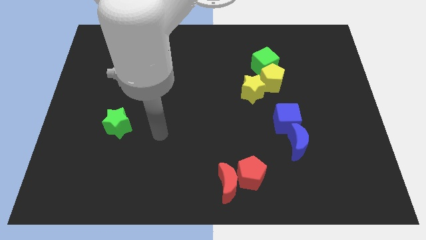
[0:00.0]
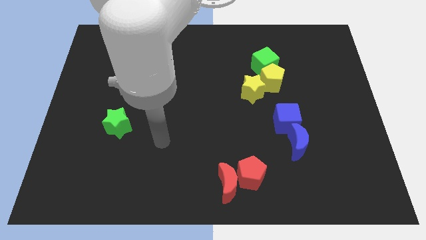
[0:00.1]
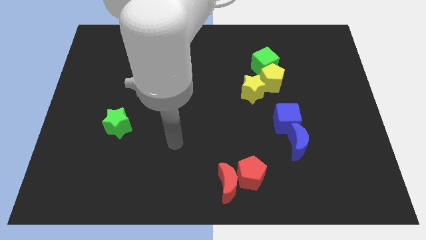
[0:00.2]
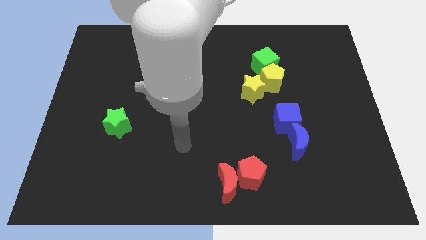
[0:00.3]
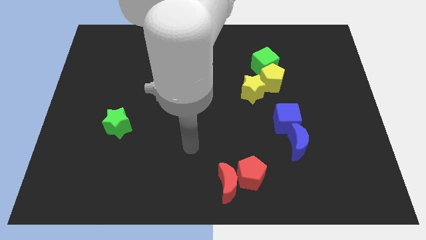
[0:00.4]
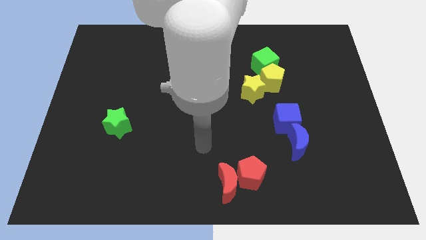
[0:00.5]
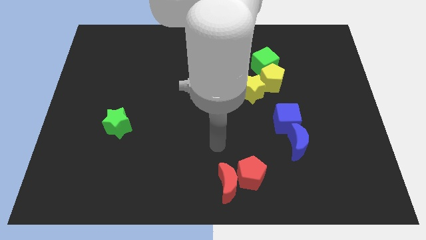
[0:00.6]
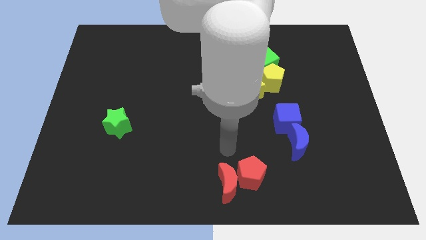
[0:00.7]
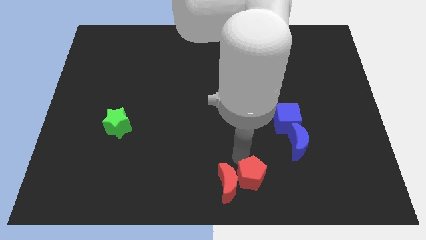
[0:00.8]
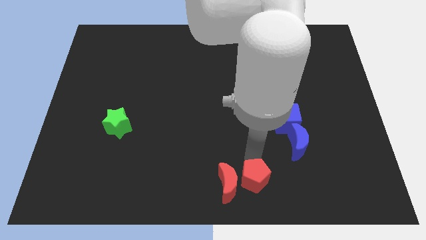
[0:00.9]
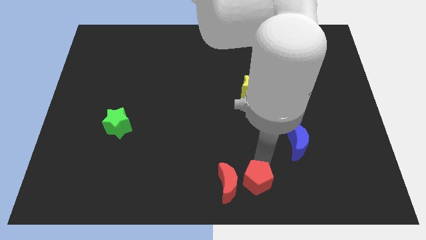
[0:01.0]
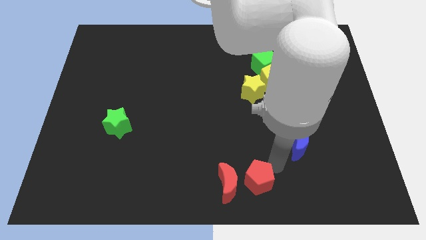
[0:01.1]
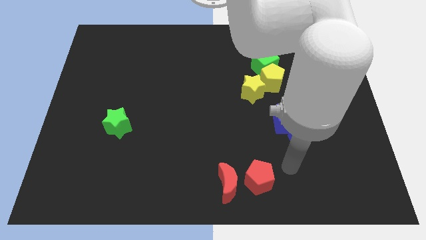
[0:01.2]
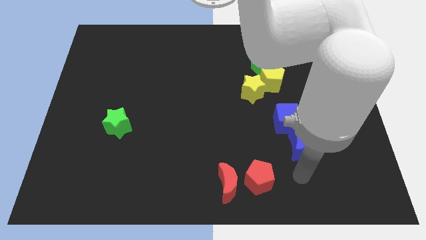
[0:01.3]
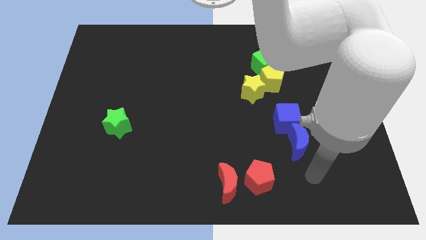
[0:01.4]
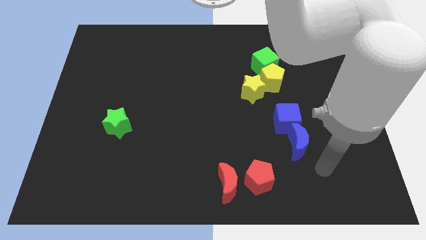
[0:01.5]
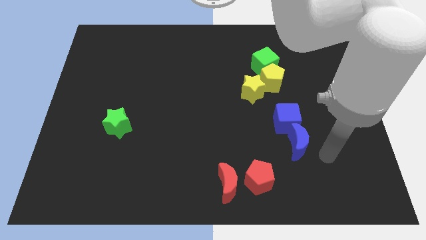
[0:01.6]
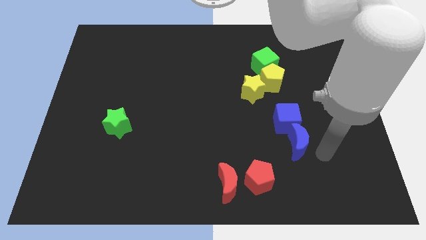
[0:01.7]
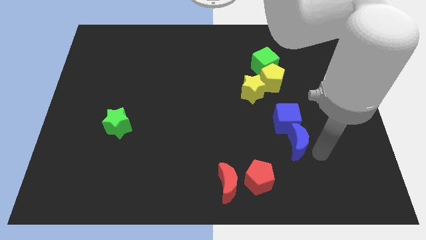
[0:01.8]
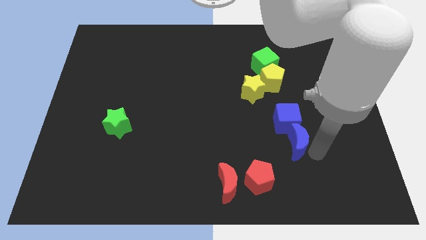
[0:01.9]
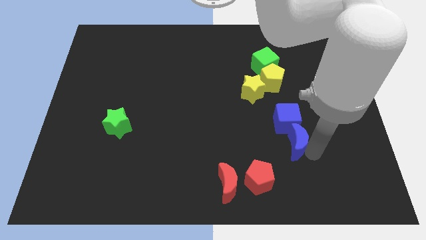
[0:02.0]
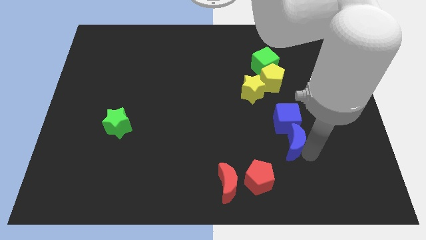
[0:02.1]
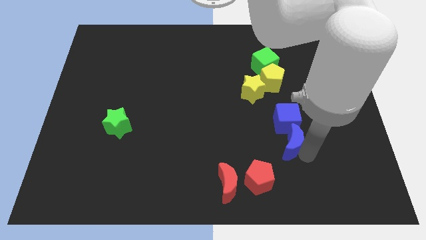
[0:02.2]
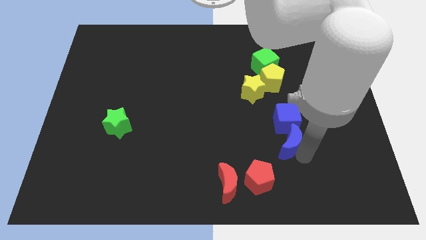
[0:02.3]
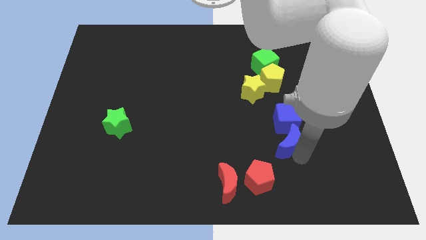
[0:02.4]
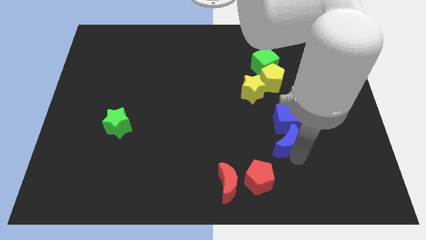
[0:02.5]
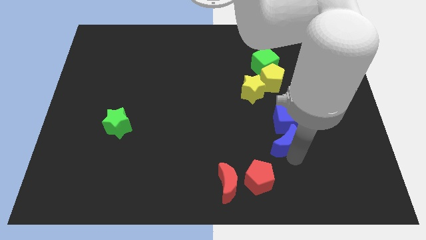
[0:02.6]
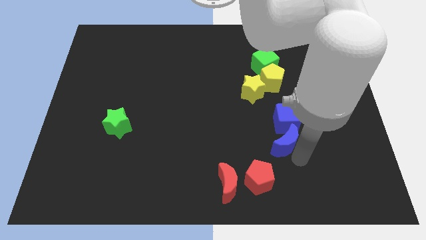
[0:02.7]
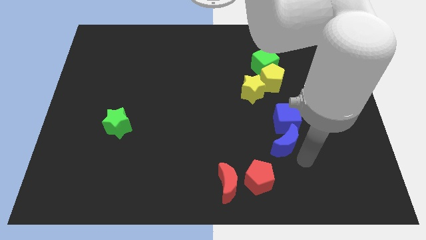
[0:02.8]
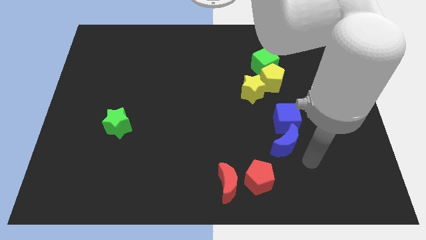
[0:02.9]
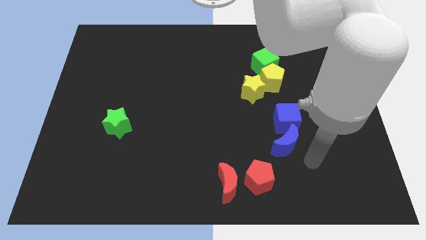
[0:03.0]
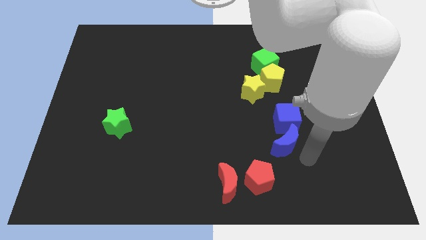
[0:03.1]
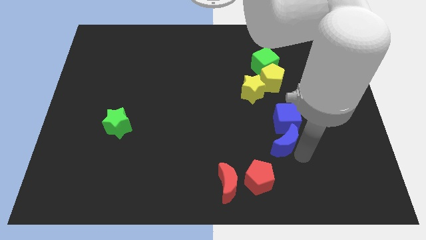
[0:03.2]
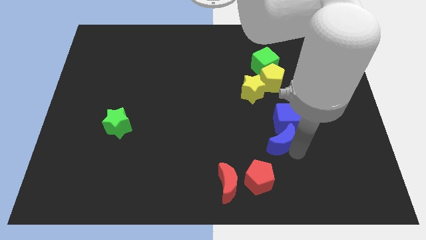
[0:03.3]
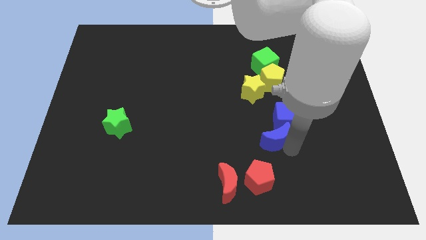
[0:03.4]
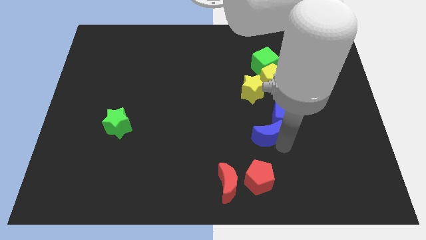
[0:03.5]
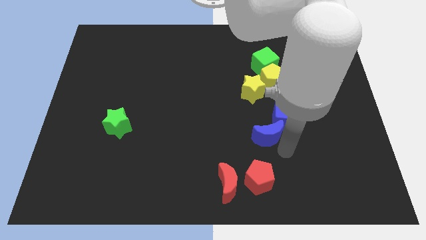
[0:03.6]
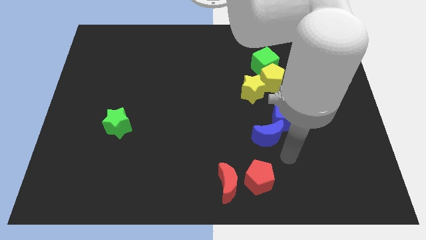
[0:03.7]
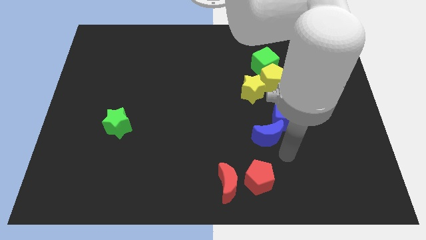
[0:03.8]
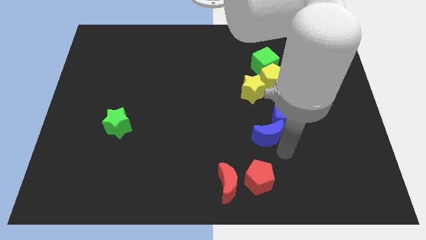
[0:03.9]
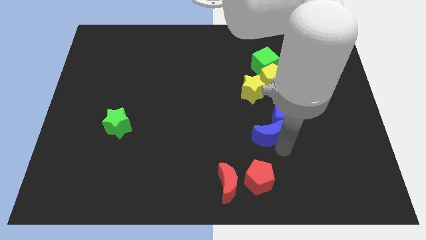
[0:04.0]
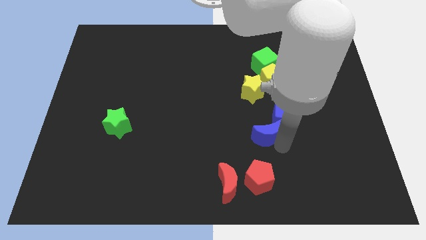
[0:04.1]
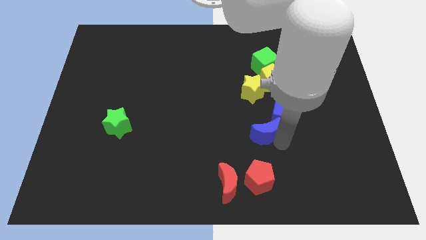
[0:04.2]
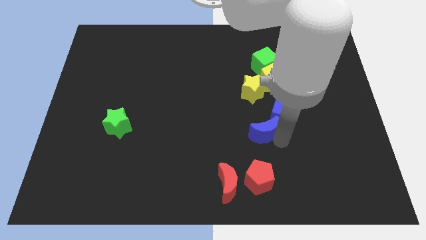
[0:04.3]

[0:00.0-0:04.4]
push the blue moon up and left diagonally a little

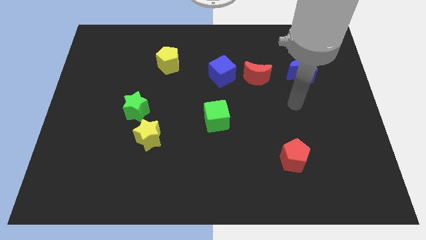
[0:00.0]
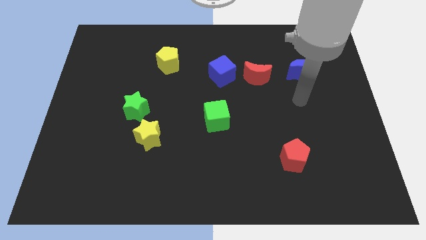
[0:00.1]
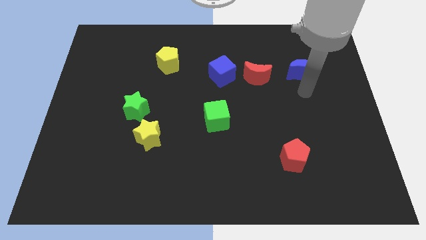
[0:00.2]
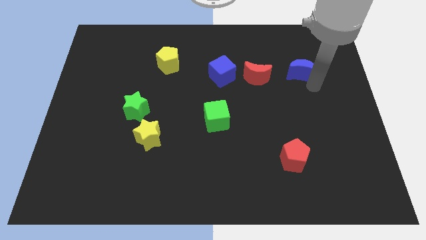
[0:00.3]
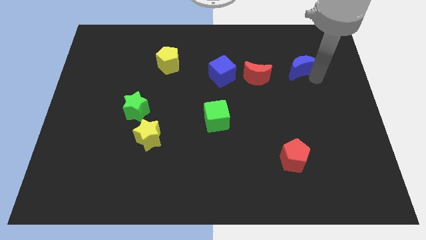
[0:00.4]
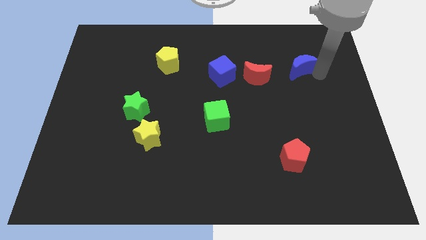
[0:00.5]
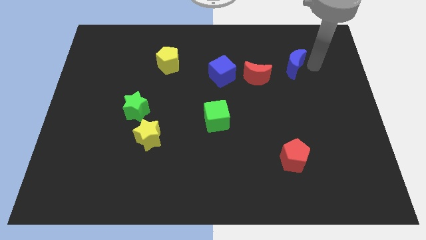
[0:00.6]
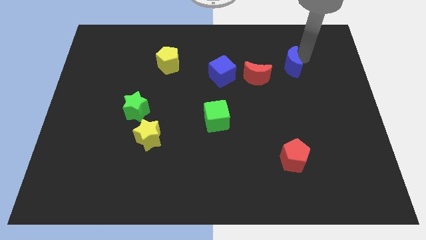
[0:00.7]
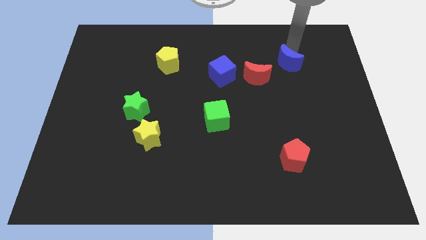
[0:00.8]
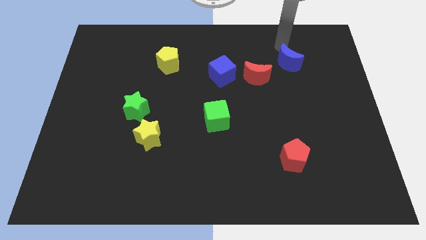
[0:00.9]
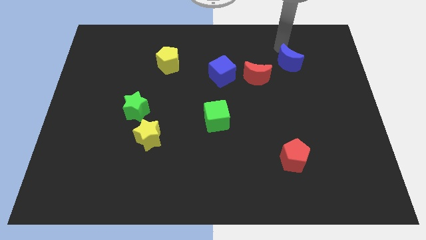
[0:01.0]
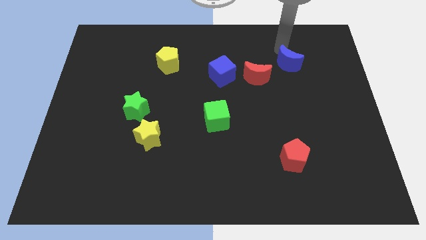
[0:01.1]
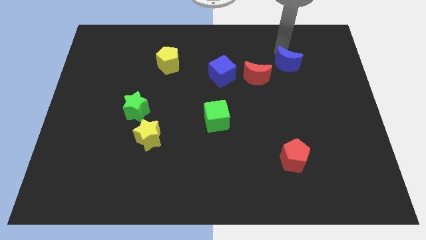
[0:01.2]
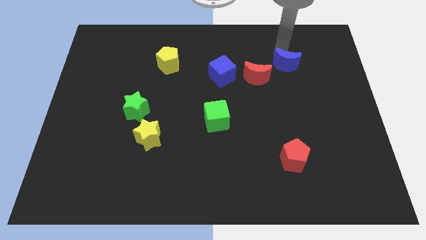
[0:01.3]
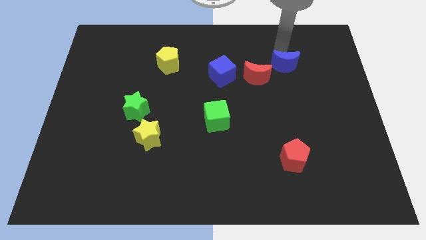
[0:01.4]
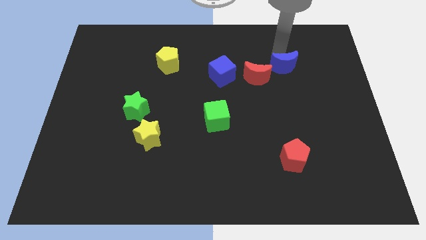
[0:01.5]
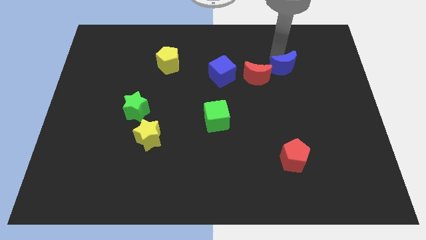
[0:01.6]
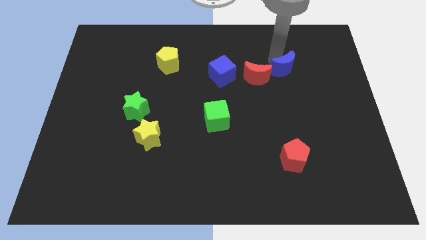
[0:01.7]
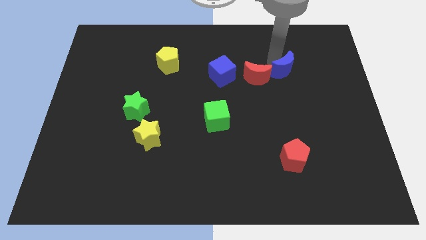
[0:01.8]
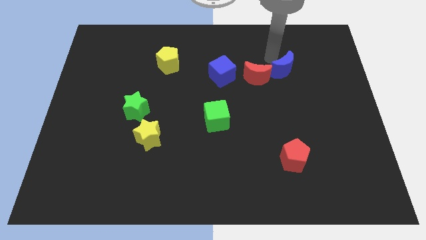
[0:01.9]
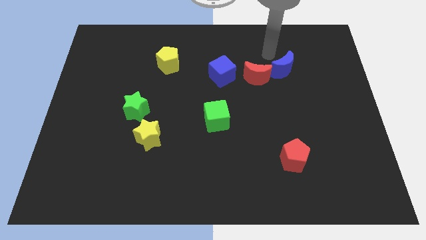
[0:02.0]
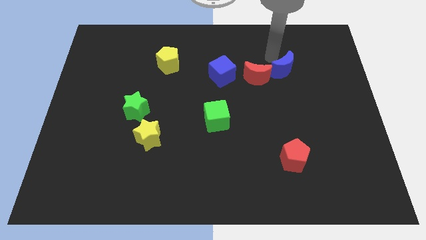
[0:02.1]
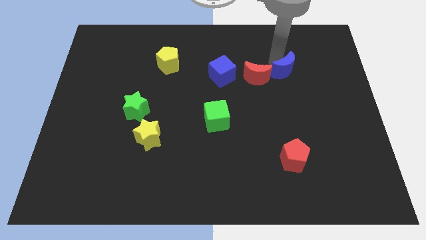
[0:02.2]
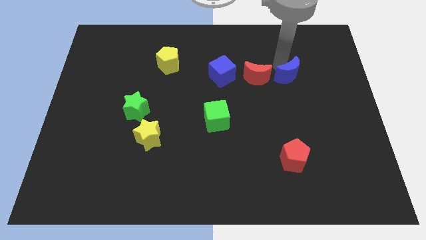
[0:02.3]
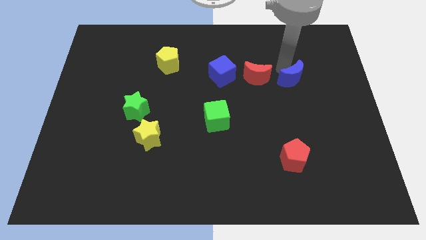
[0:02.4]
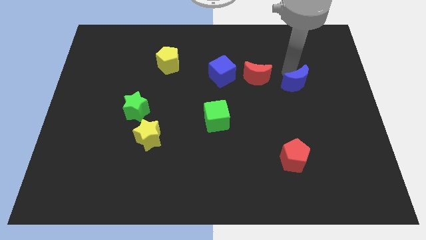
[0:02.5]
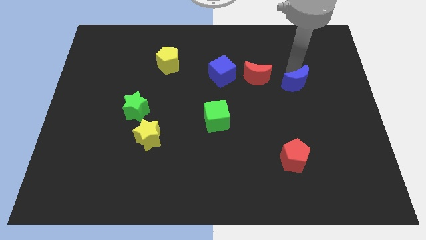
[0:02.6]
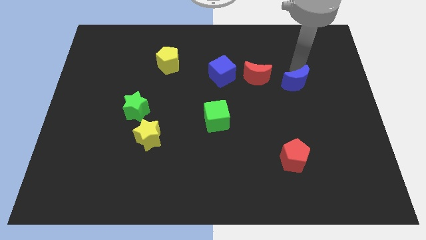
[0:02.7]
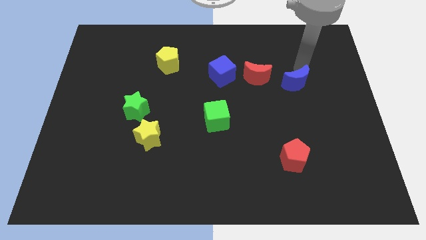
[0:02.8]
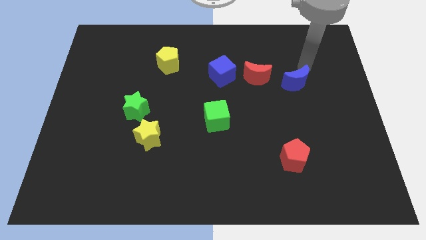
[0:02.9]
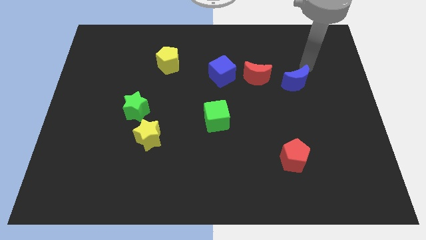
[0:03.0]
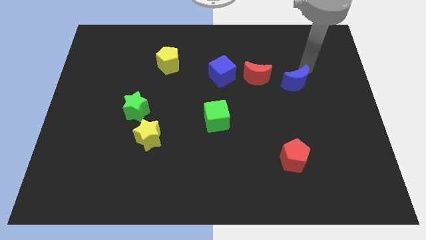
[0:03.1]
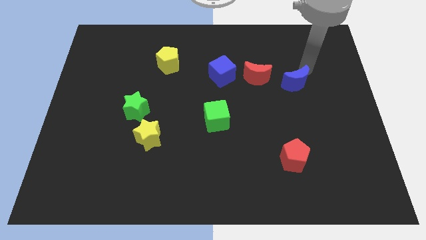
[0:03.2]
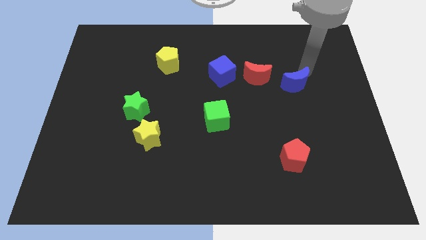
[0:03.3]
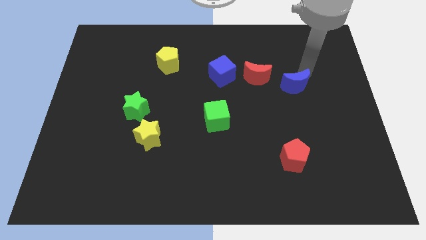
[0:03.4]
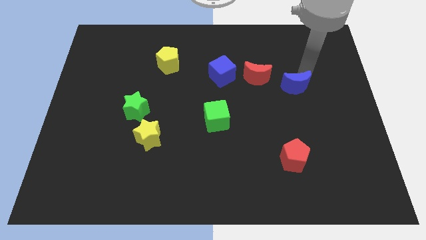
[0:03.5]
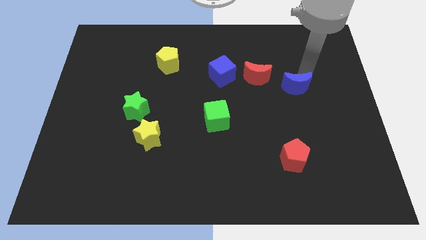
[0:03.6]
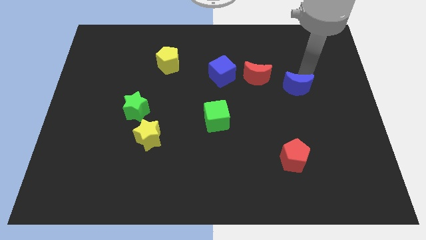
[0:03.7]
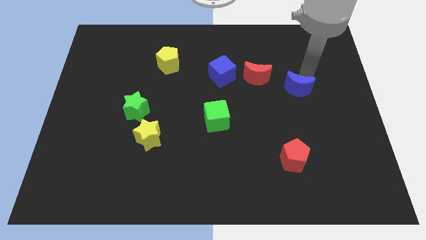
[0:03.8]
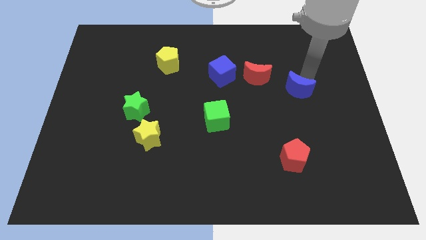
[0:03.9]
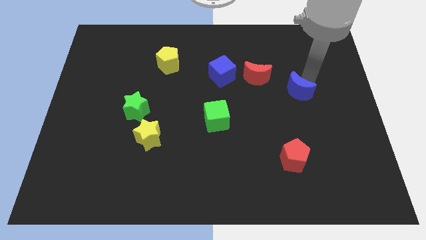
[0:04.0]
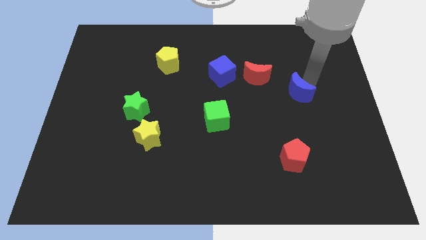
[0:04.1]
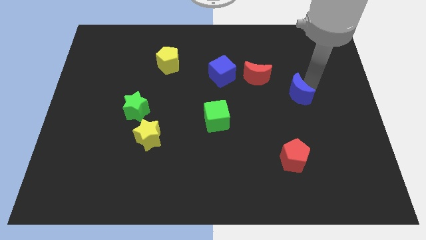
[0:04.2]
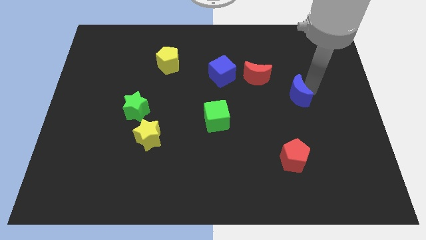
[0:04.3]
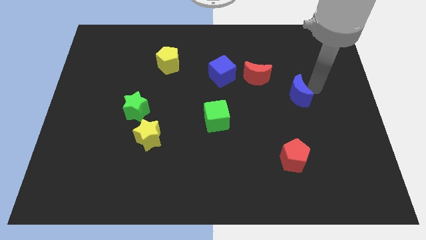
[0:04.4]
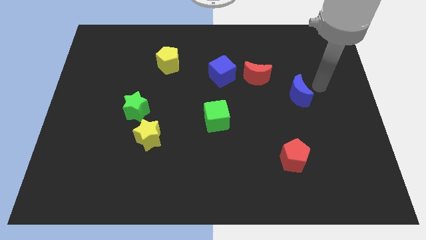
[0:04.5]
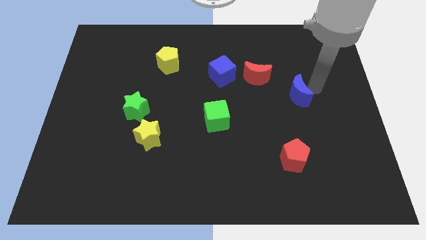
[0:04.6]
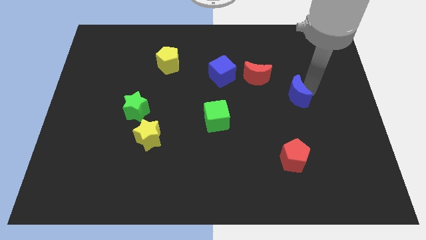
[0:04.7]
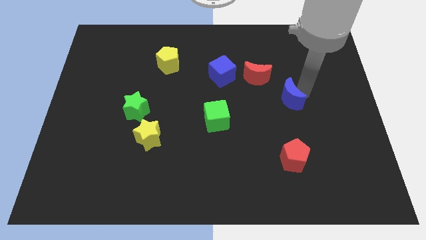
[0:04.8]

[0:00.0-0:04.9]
slide the blue moon down and to the left diagonally a little
